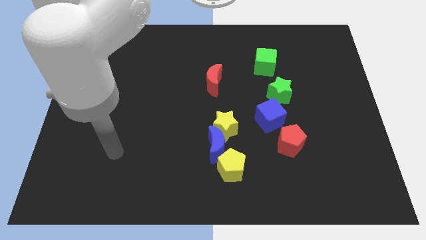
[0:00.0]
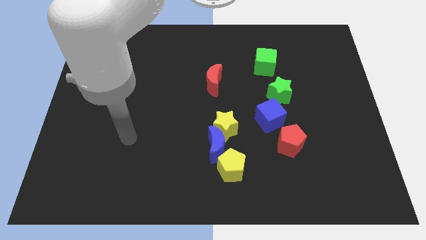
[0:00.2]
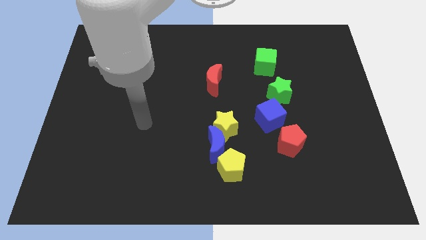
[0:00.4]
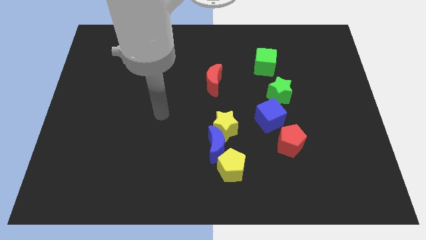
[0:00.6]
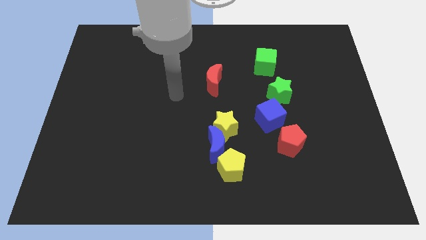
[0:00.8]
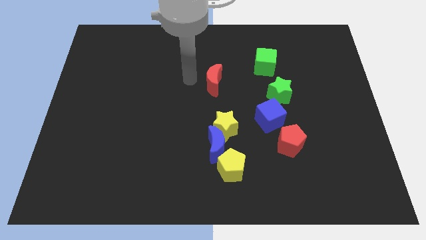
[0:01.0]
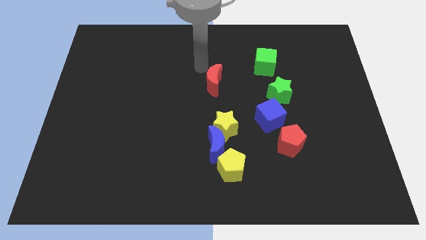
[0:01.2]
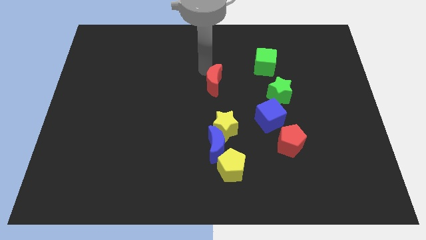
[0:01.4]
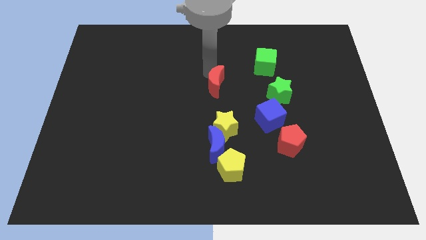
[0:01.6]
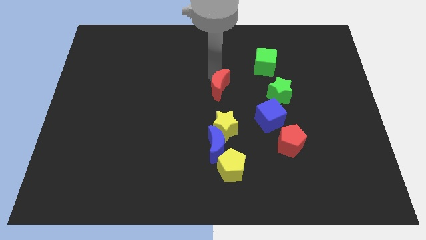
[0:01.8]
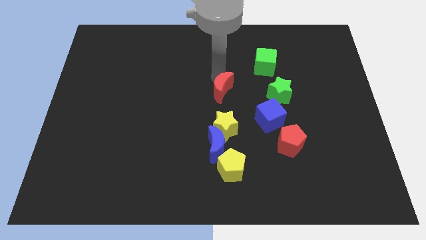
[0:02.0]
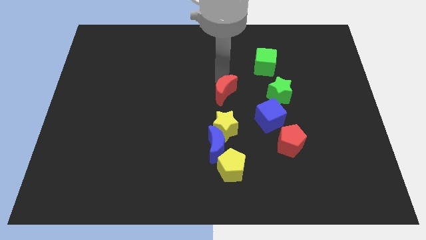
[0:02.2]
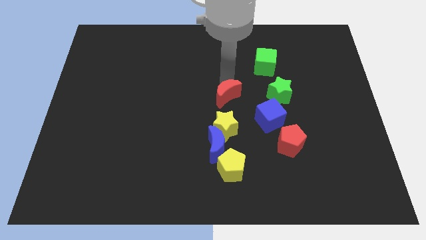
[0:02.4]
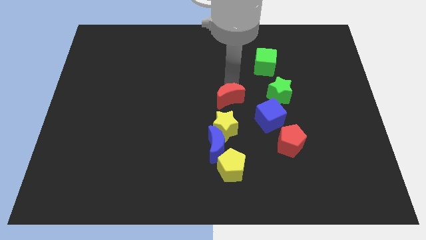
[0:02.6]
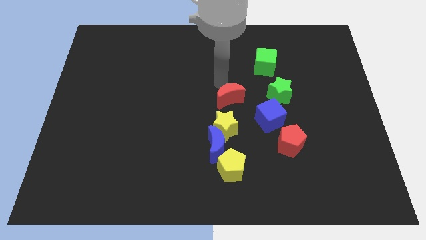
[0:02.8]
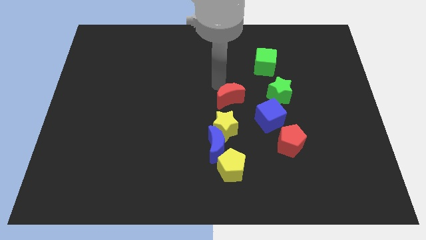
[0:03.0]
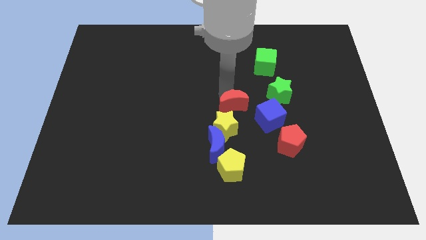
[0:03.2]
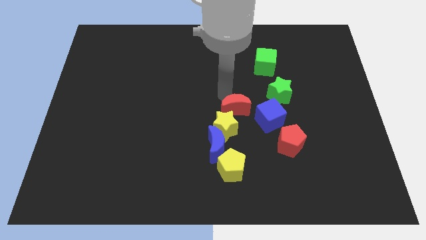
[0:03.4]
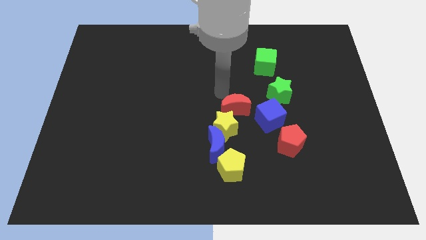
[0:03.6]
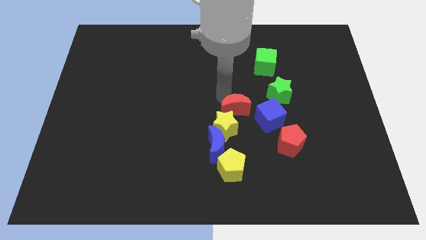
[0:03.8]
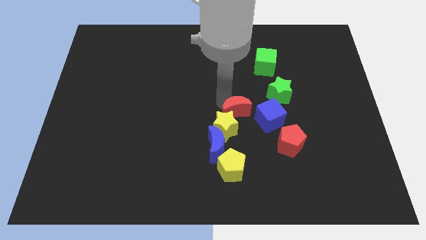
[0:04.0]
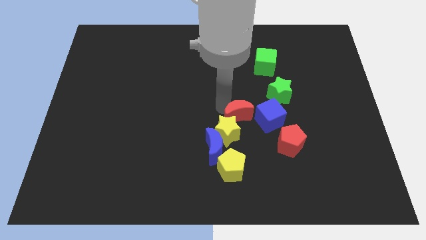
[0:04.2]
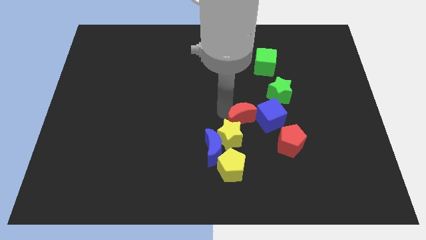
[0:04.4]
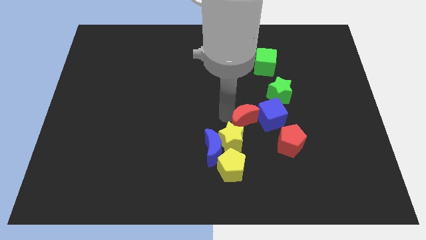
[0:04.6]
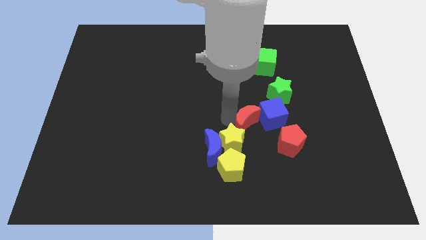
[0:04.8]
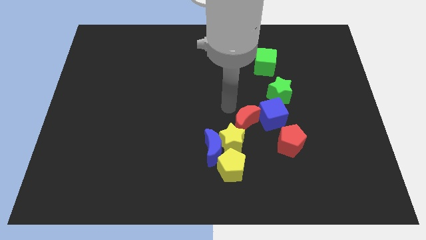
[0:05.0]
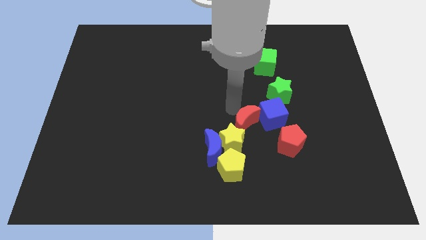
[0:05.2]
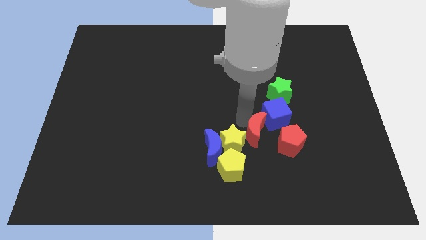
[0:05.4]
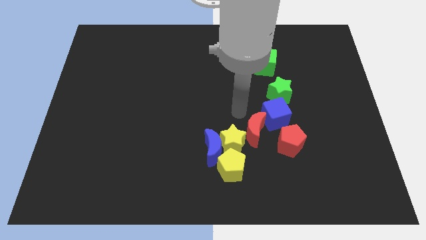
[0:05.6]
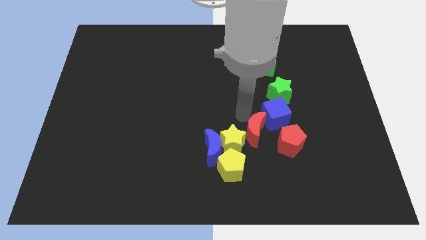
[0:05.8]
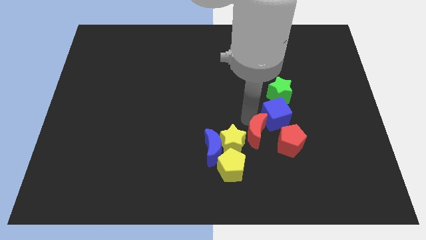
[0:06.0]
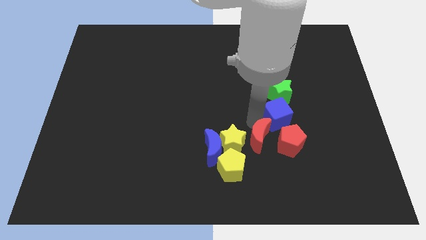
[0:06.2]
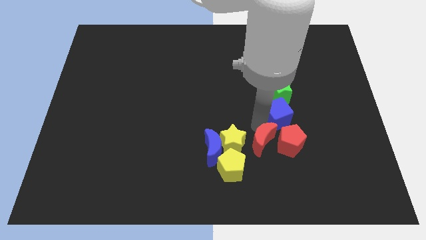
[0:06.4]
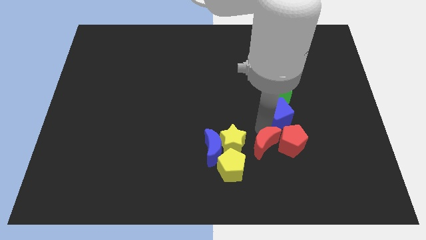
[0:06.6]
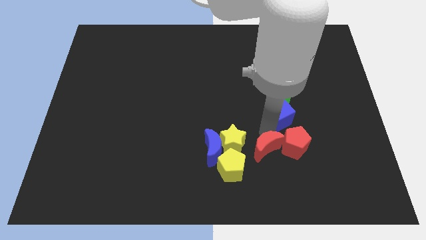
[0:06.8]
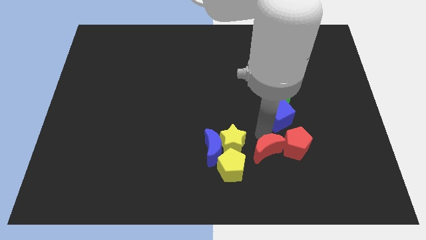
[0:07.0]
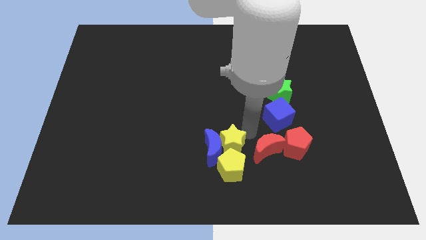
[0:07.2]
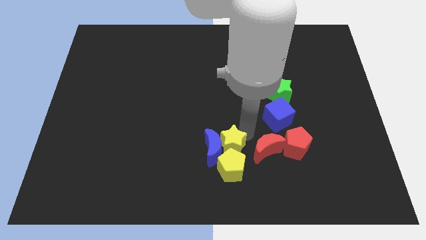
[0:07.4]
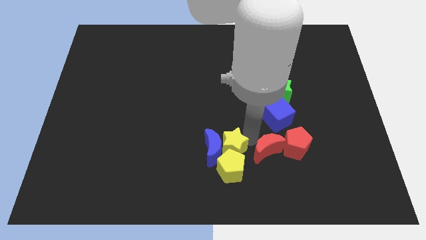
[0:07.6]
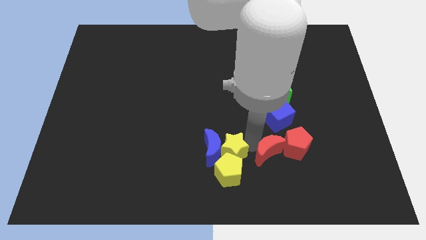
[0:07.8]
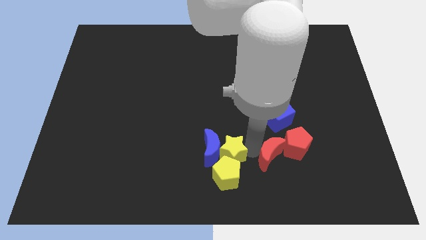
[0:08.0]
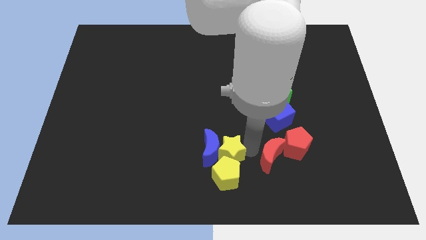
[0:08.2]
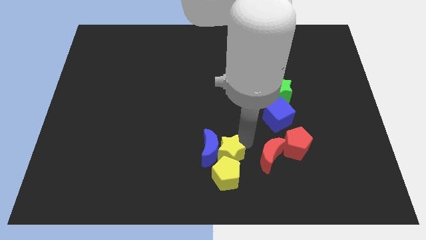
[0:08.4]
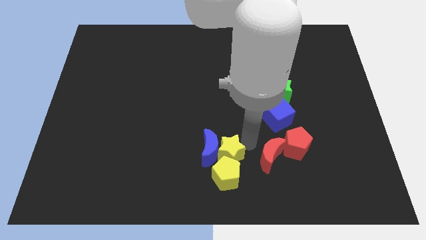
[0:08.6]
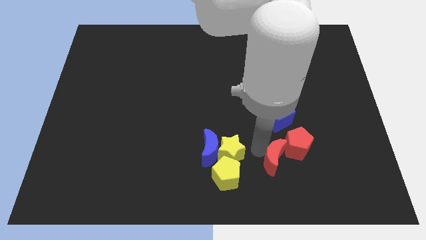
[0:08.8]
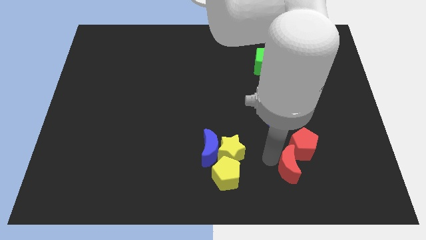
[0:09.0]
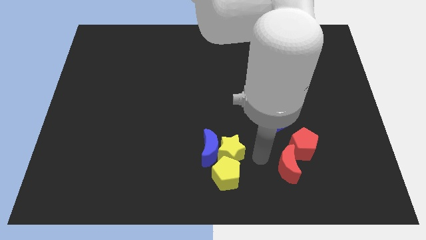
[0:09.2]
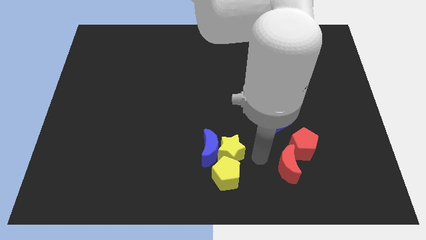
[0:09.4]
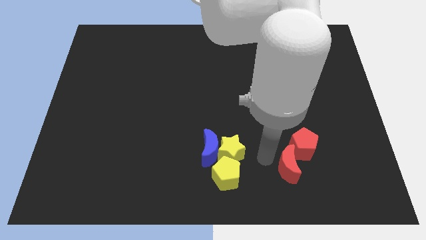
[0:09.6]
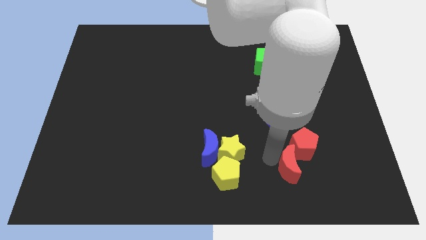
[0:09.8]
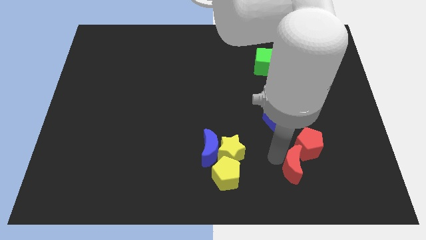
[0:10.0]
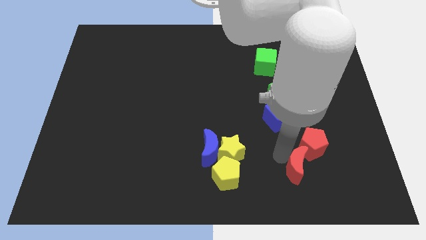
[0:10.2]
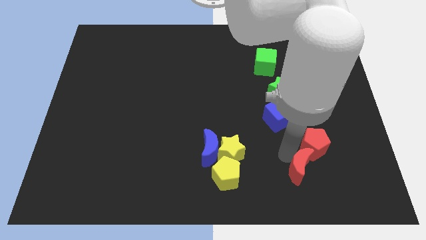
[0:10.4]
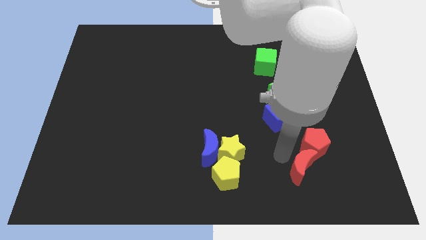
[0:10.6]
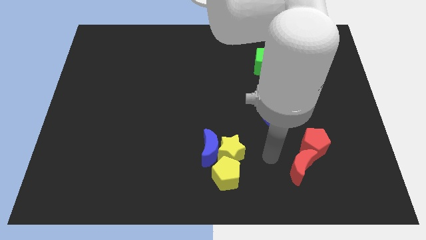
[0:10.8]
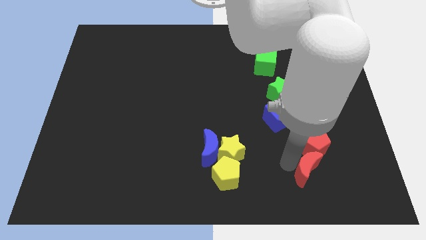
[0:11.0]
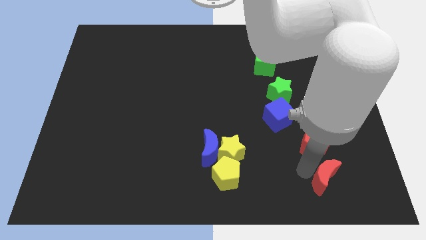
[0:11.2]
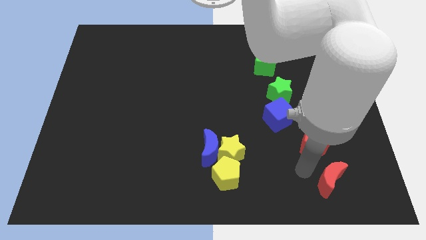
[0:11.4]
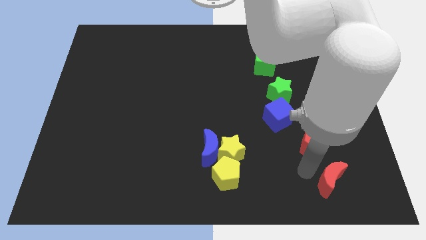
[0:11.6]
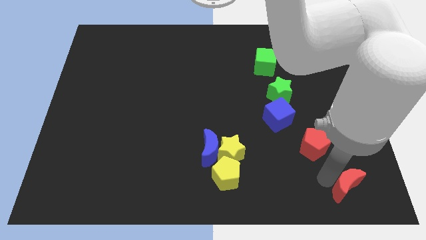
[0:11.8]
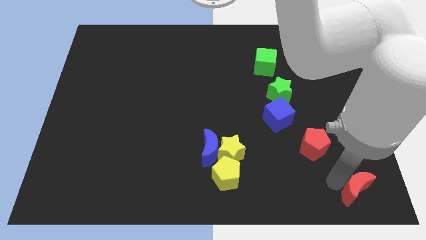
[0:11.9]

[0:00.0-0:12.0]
move the red moon to the lower right corner
